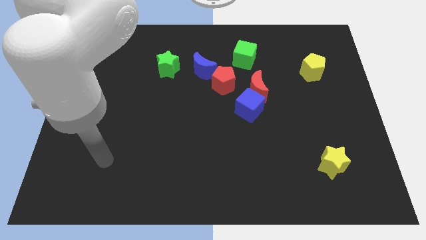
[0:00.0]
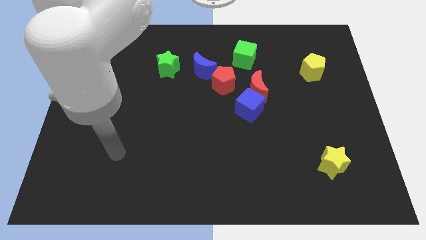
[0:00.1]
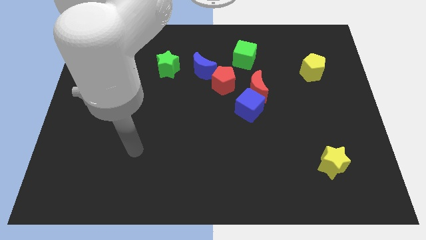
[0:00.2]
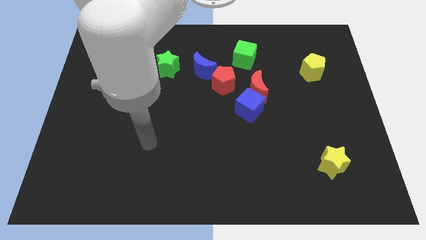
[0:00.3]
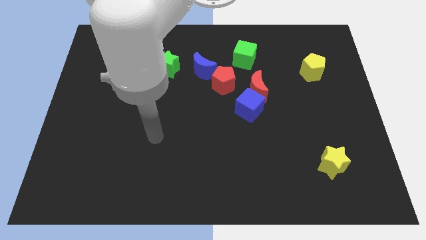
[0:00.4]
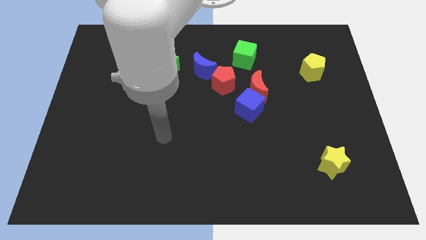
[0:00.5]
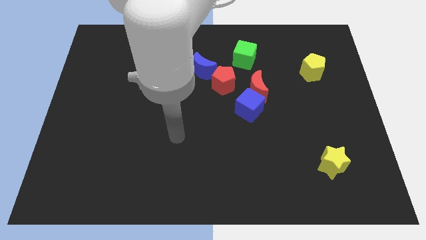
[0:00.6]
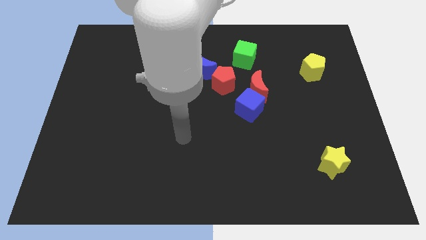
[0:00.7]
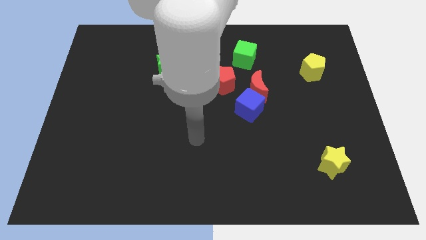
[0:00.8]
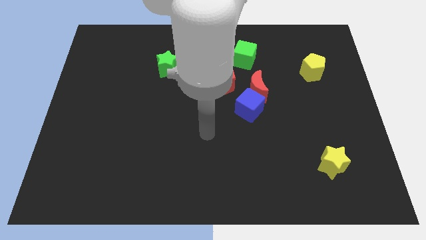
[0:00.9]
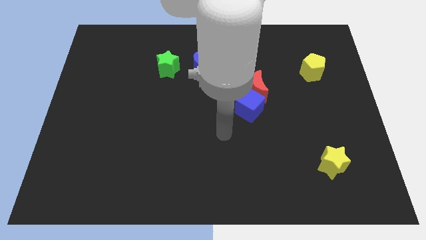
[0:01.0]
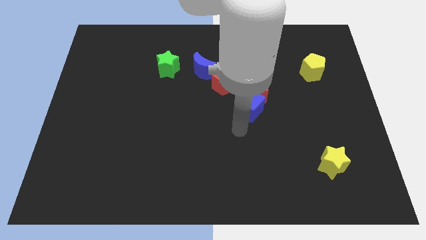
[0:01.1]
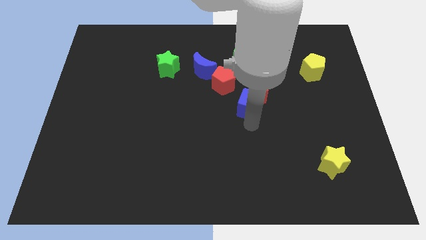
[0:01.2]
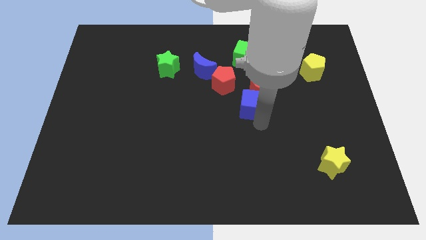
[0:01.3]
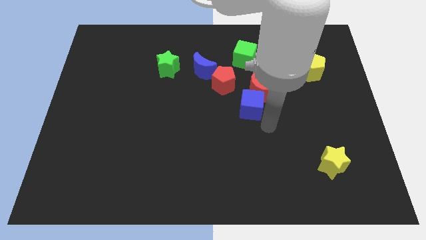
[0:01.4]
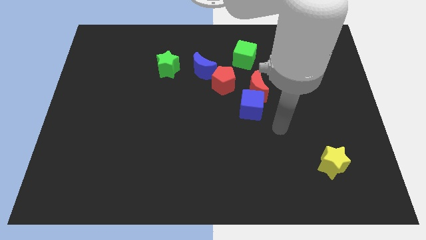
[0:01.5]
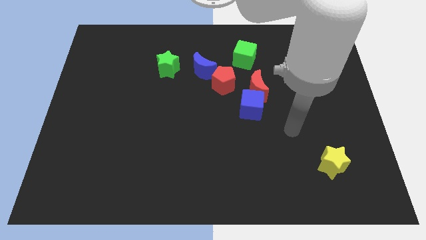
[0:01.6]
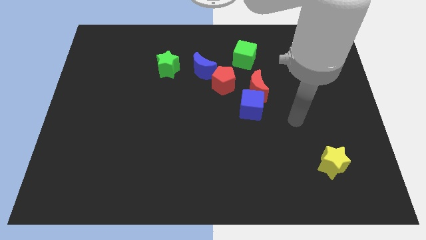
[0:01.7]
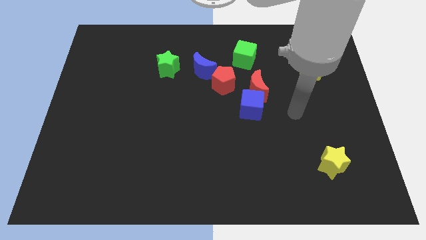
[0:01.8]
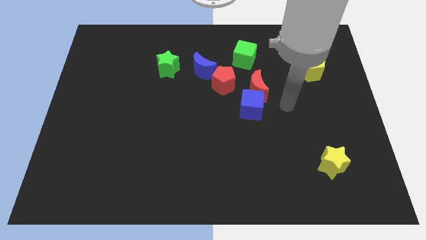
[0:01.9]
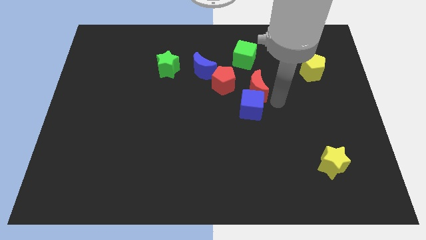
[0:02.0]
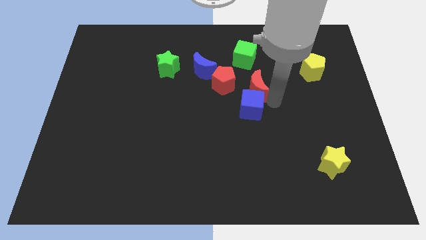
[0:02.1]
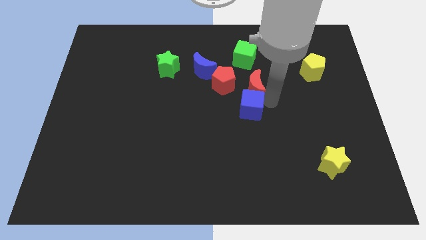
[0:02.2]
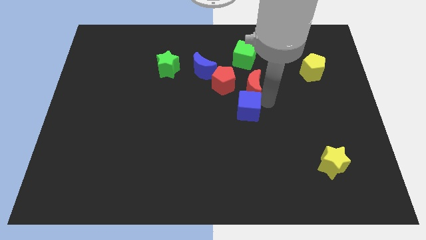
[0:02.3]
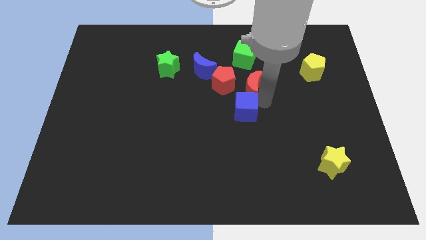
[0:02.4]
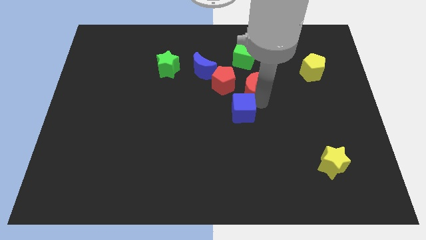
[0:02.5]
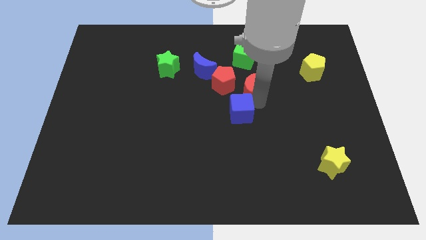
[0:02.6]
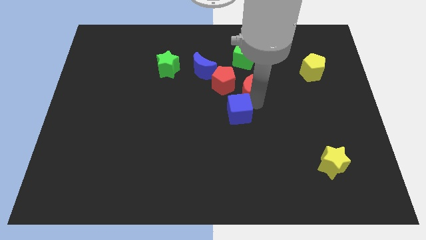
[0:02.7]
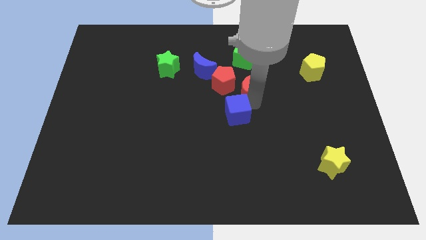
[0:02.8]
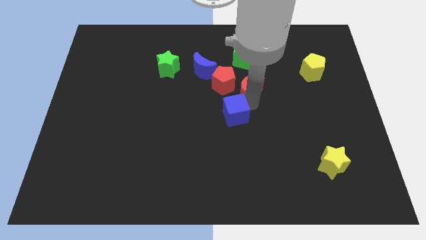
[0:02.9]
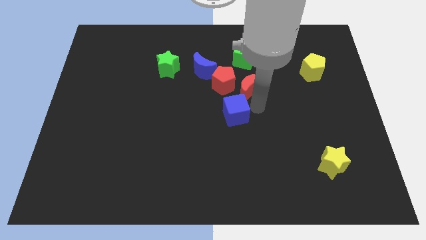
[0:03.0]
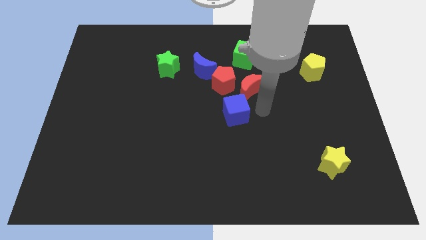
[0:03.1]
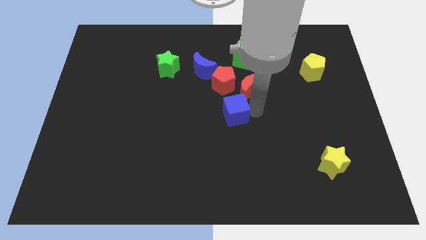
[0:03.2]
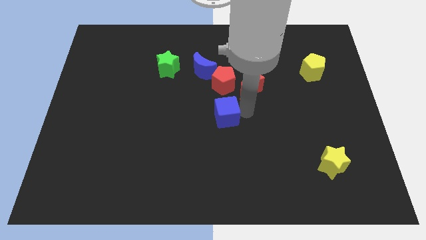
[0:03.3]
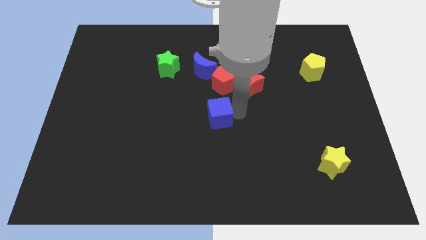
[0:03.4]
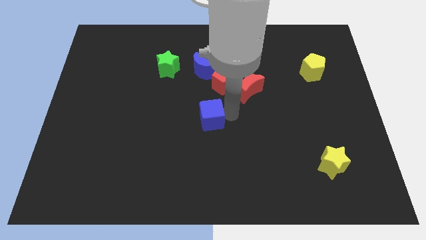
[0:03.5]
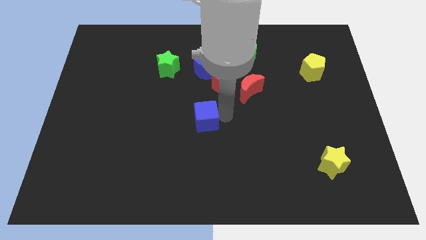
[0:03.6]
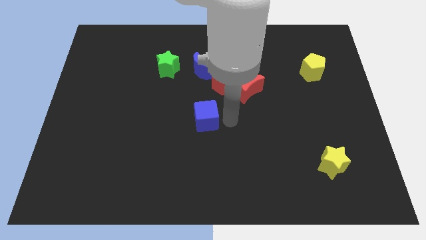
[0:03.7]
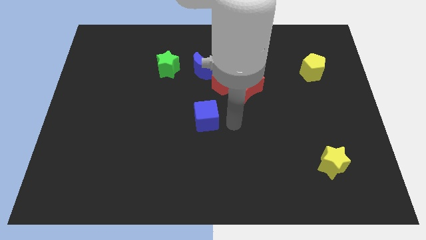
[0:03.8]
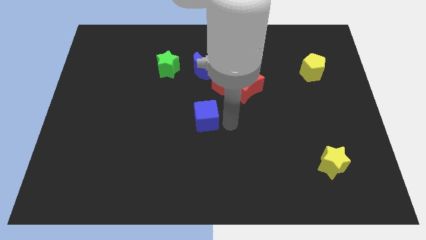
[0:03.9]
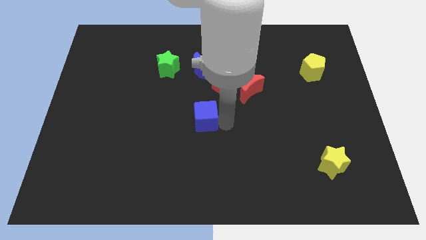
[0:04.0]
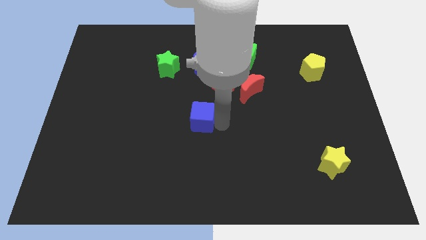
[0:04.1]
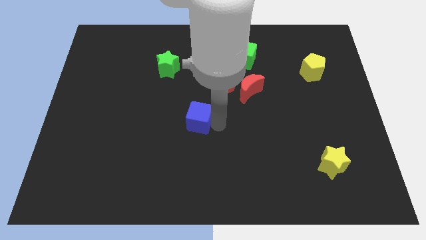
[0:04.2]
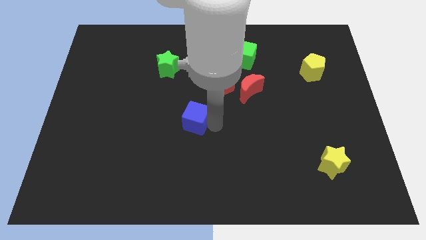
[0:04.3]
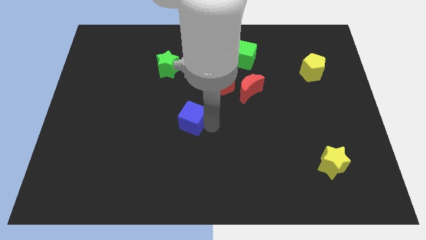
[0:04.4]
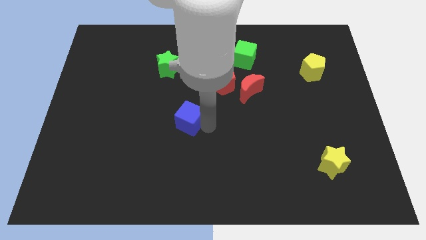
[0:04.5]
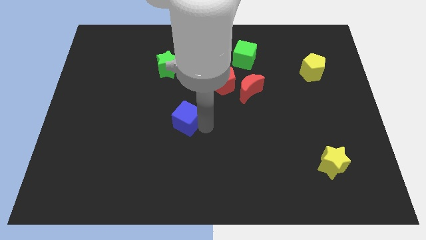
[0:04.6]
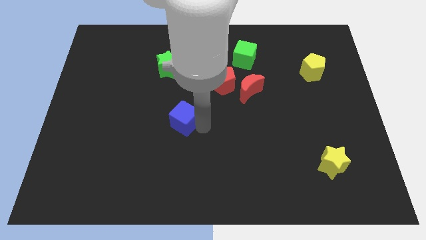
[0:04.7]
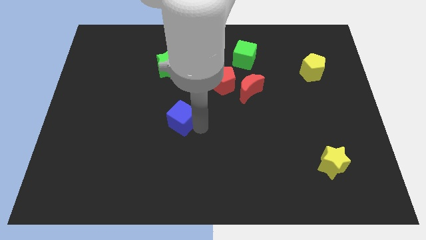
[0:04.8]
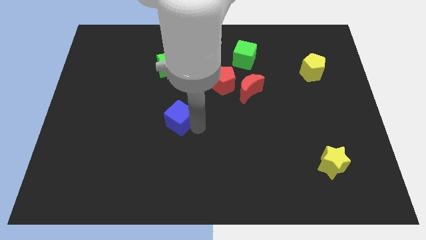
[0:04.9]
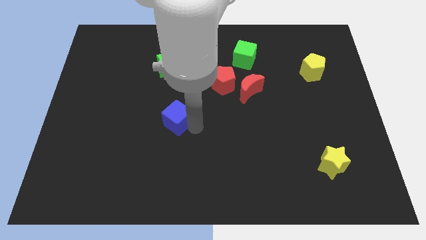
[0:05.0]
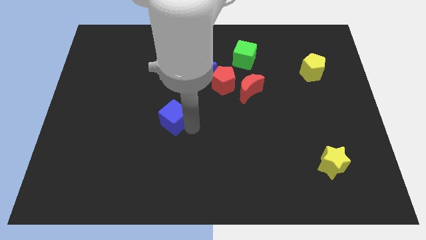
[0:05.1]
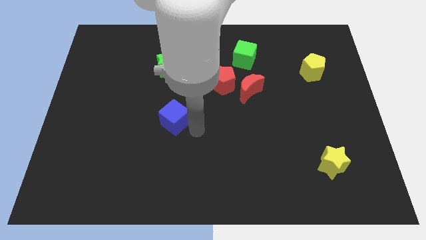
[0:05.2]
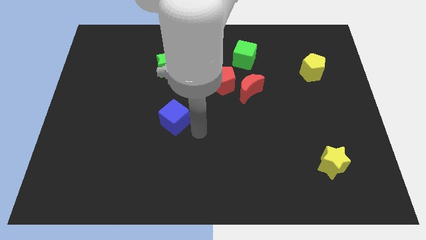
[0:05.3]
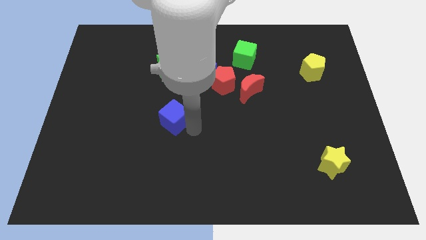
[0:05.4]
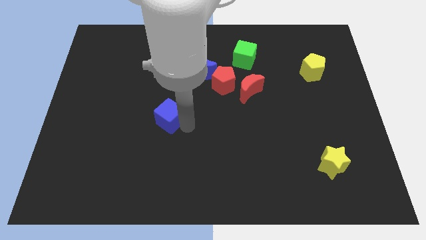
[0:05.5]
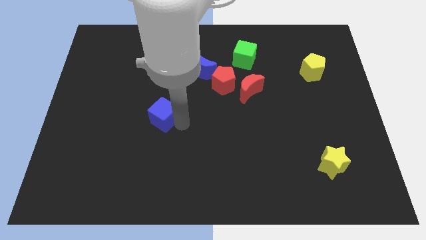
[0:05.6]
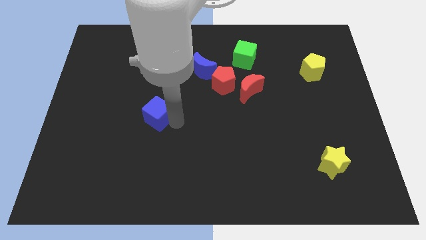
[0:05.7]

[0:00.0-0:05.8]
slide the blue cube to the left

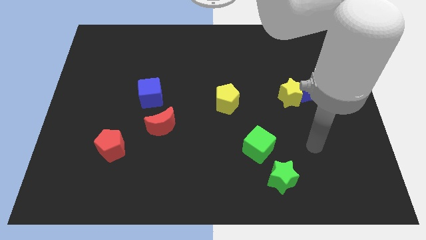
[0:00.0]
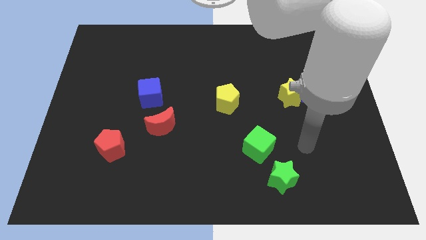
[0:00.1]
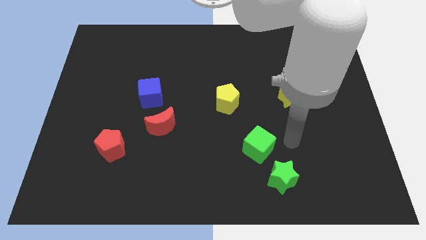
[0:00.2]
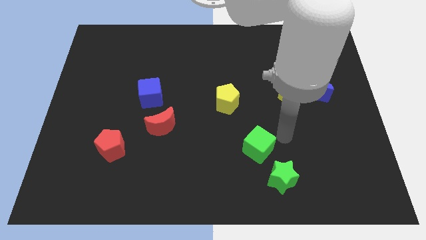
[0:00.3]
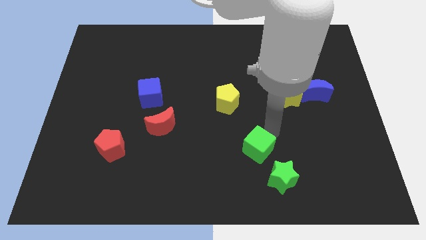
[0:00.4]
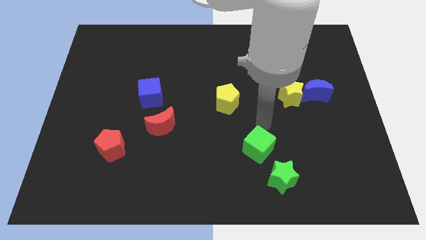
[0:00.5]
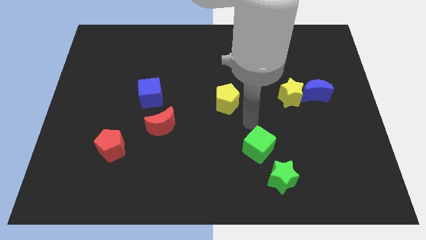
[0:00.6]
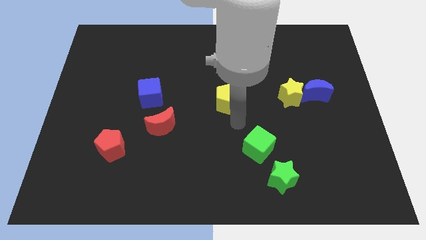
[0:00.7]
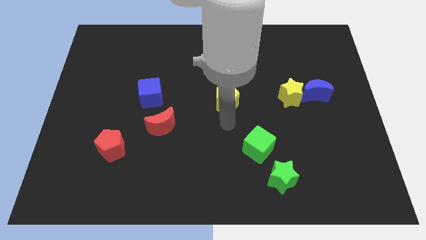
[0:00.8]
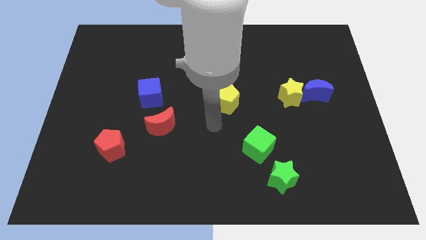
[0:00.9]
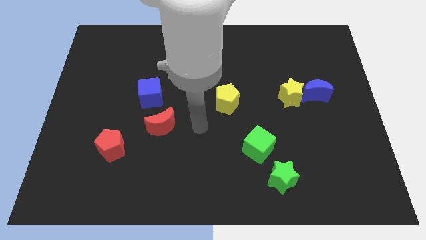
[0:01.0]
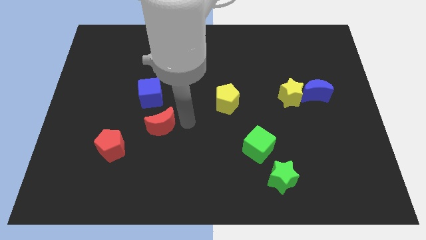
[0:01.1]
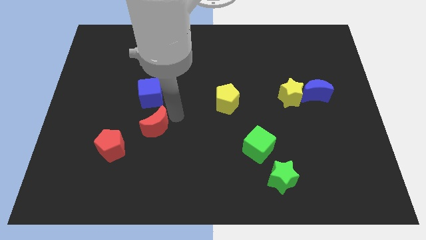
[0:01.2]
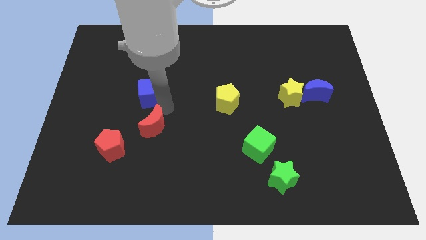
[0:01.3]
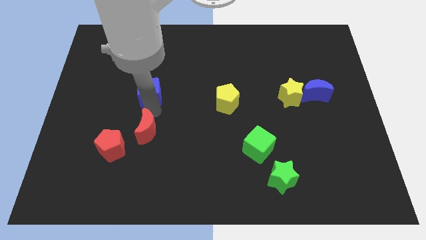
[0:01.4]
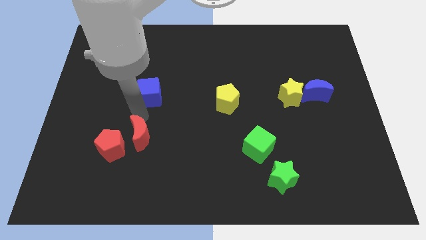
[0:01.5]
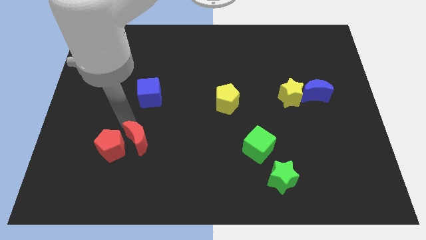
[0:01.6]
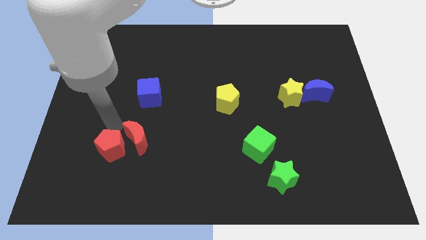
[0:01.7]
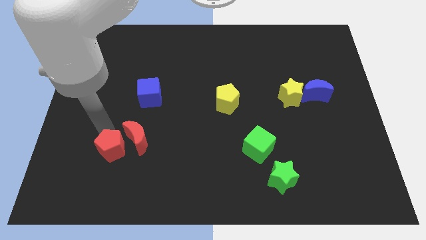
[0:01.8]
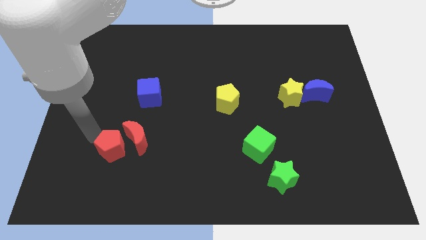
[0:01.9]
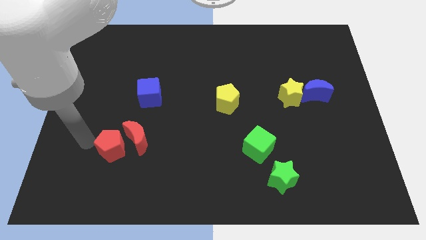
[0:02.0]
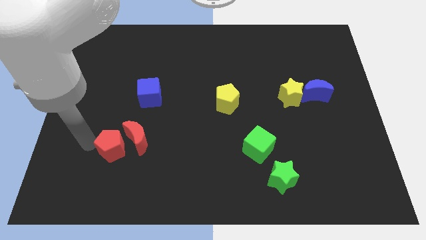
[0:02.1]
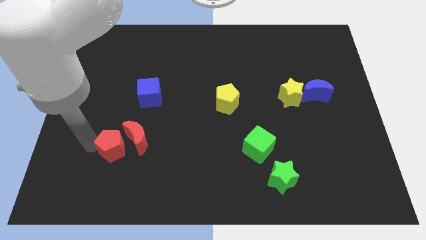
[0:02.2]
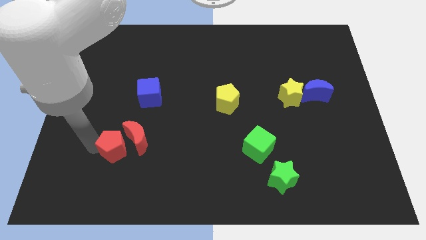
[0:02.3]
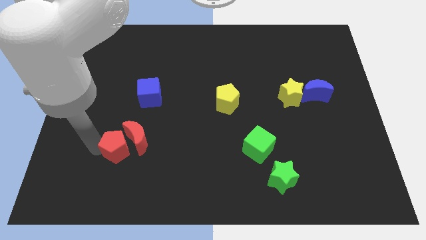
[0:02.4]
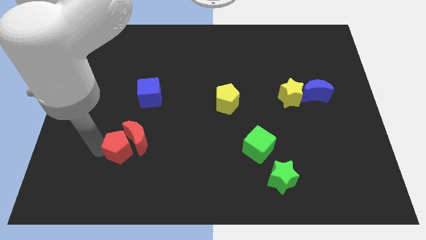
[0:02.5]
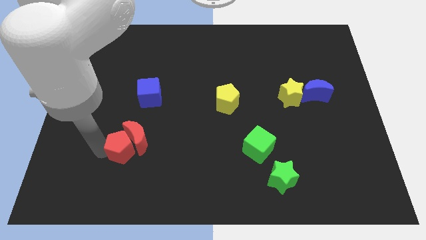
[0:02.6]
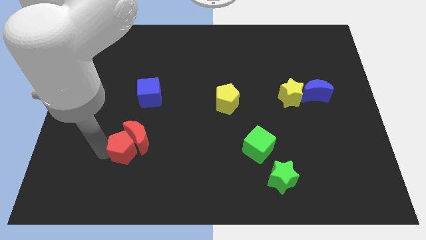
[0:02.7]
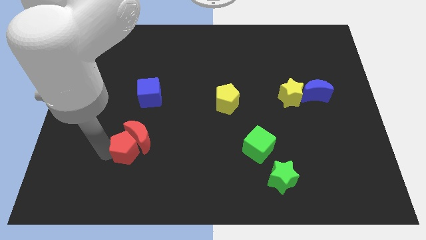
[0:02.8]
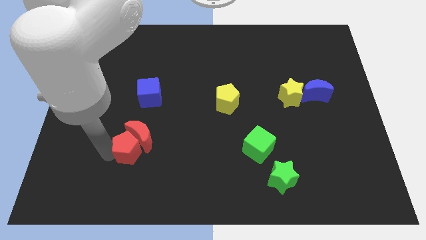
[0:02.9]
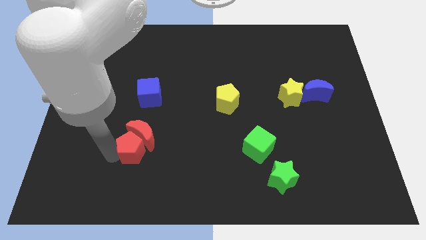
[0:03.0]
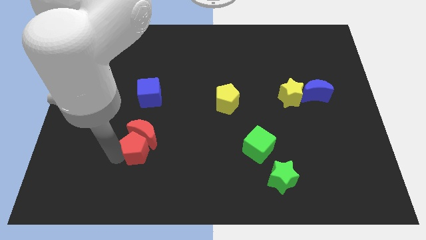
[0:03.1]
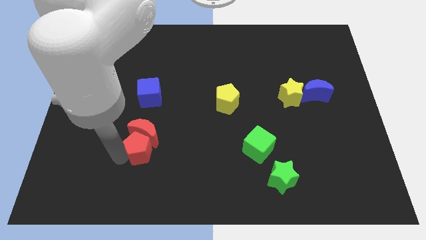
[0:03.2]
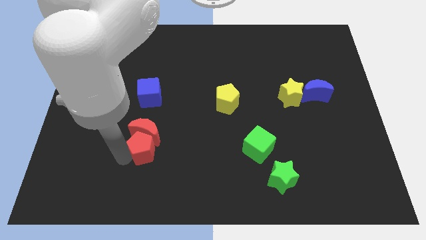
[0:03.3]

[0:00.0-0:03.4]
slightly push the red pentagon to the right
